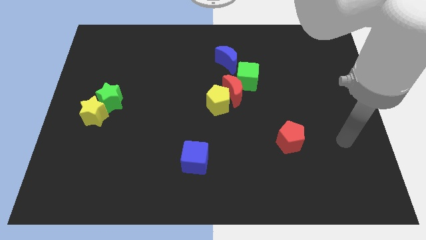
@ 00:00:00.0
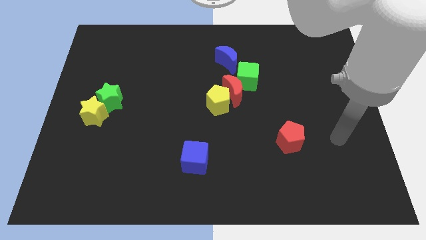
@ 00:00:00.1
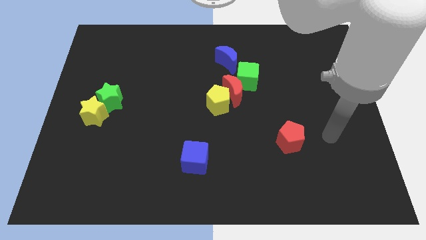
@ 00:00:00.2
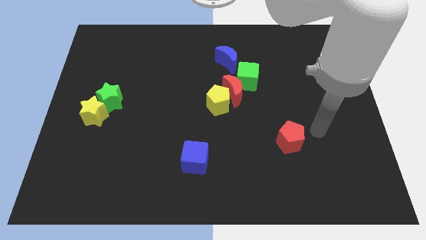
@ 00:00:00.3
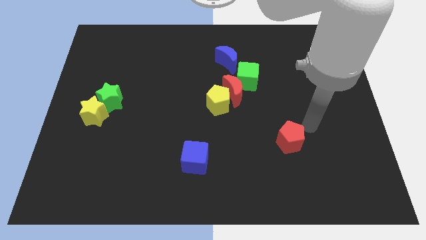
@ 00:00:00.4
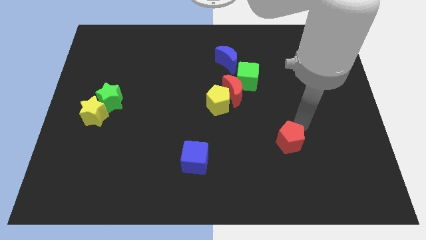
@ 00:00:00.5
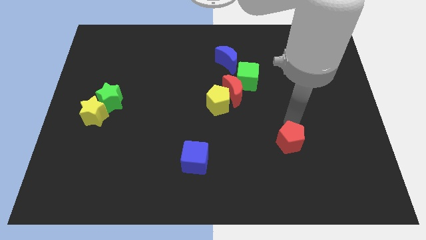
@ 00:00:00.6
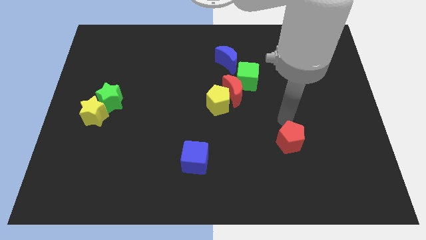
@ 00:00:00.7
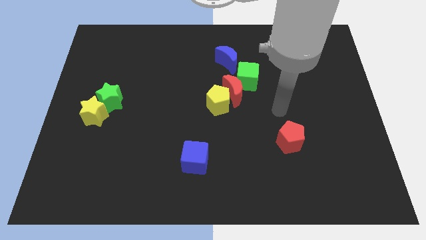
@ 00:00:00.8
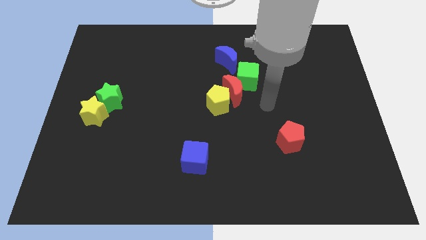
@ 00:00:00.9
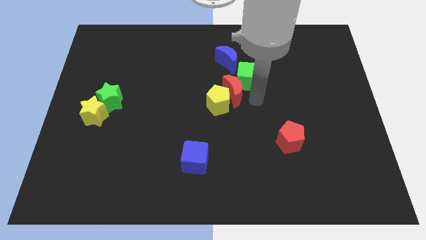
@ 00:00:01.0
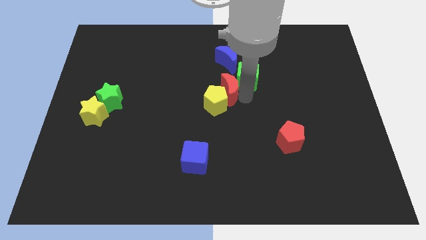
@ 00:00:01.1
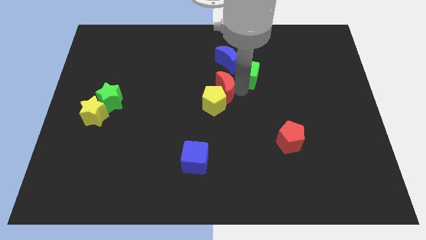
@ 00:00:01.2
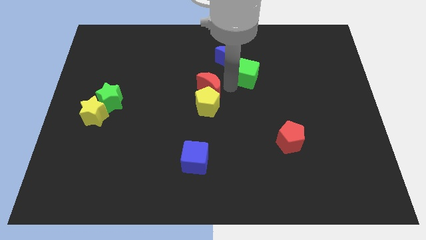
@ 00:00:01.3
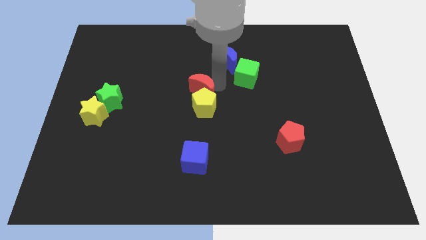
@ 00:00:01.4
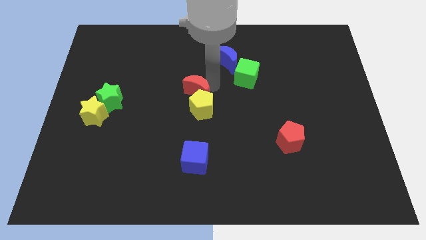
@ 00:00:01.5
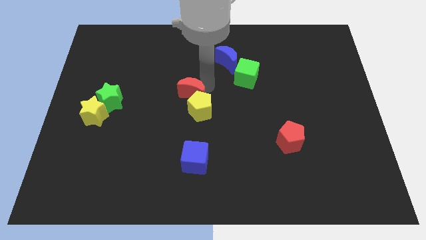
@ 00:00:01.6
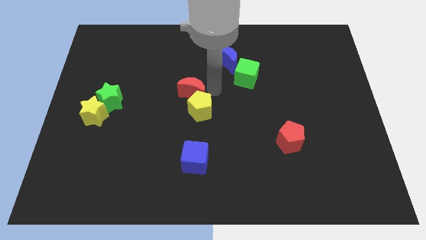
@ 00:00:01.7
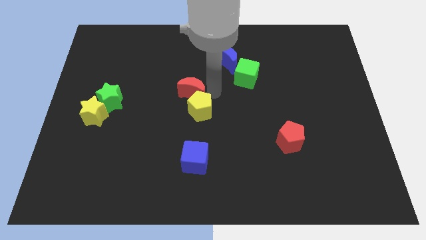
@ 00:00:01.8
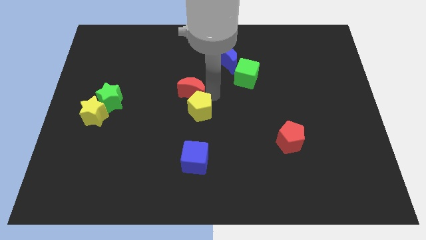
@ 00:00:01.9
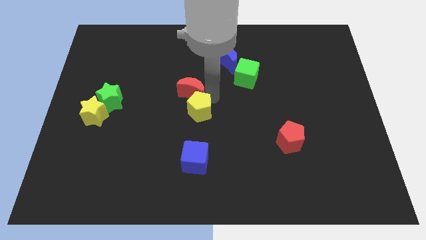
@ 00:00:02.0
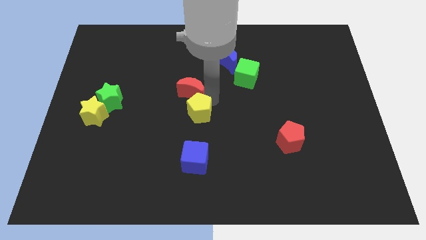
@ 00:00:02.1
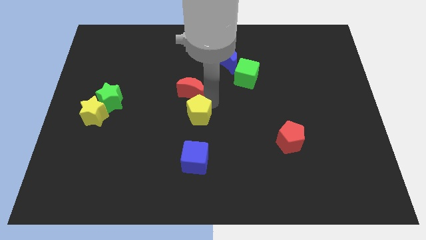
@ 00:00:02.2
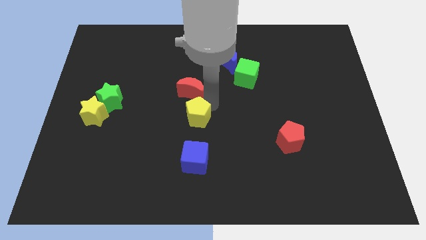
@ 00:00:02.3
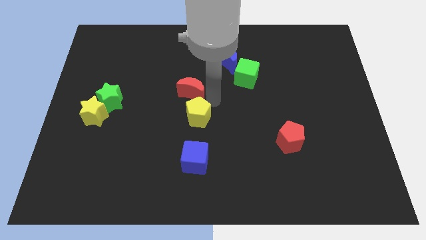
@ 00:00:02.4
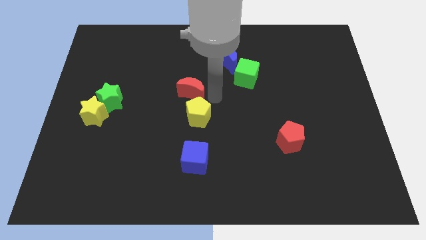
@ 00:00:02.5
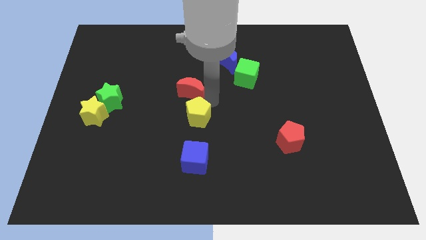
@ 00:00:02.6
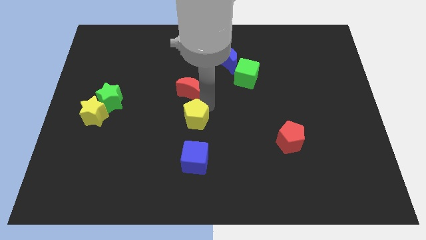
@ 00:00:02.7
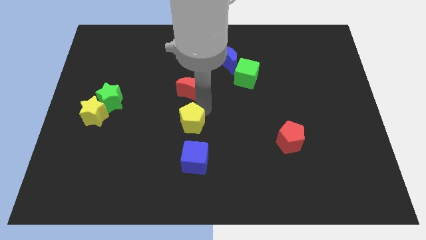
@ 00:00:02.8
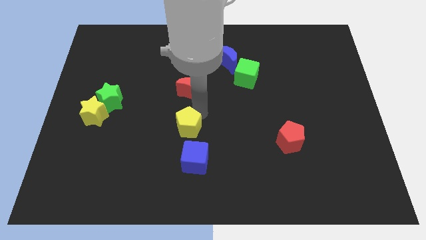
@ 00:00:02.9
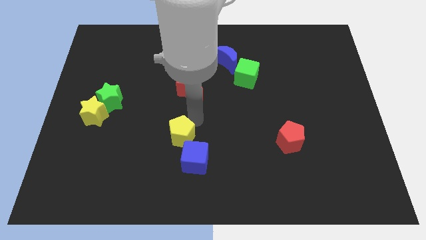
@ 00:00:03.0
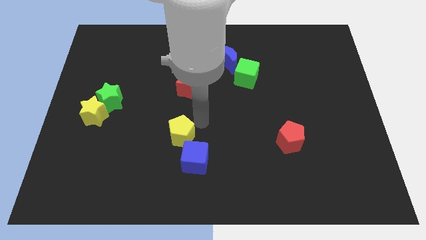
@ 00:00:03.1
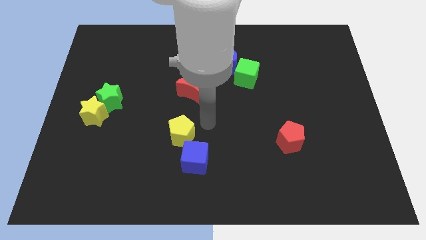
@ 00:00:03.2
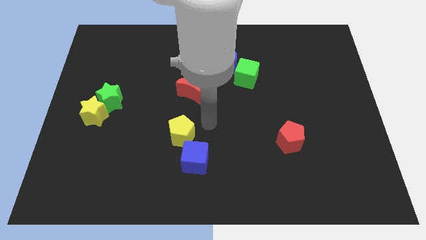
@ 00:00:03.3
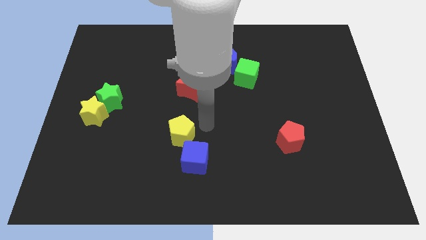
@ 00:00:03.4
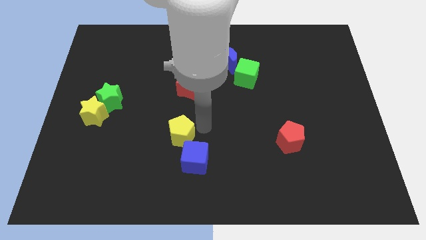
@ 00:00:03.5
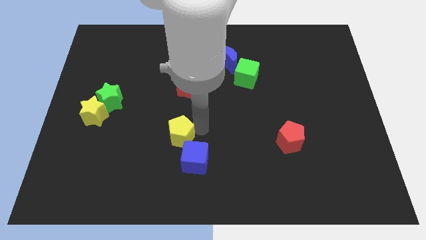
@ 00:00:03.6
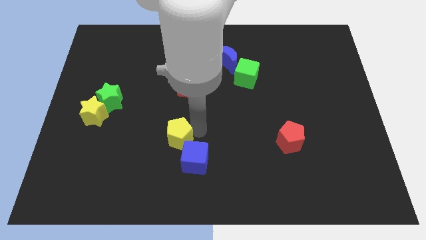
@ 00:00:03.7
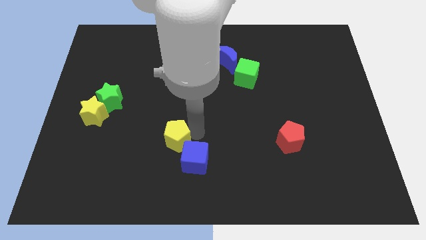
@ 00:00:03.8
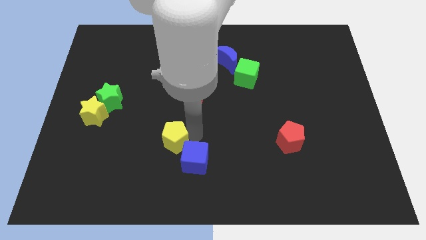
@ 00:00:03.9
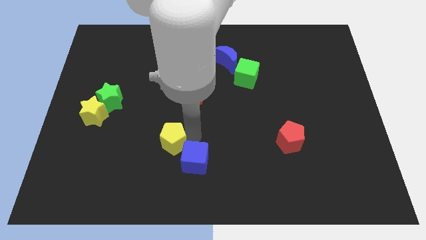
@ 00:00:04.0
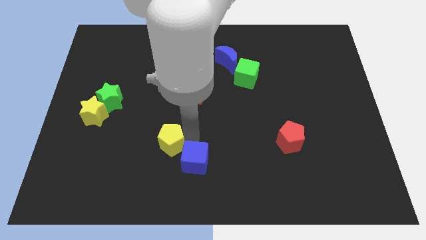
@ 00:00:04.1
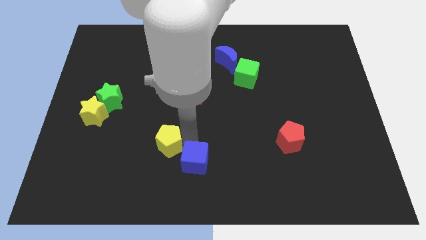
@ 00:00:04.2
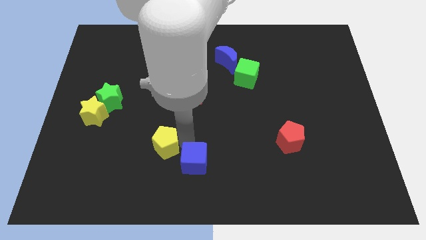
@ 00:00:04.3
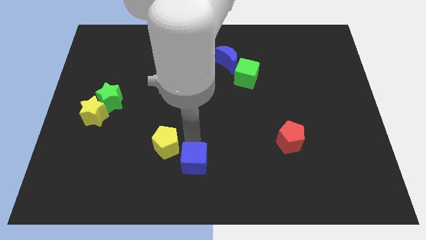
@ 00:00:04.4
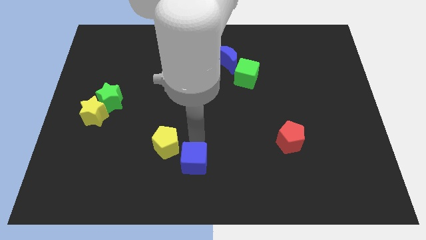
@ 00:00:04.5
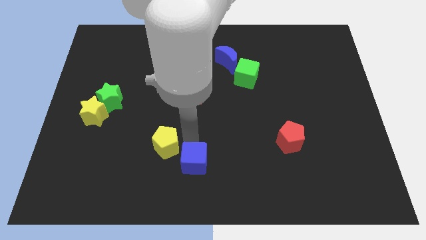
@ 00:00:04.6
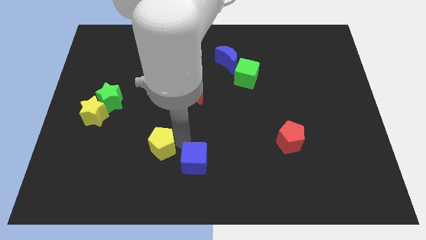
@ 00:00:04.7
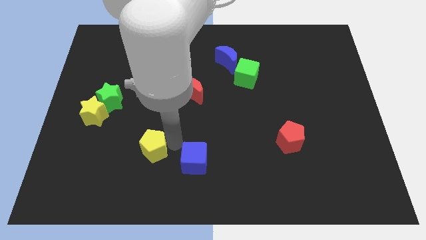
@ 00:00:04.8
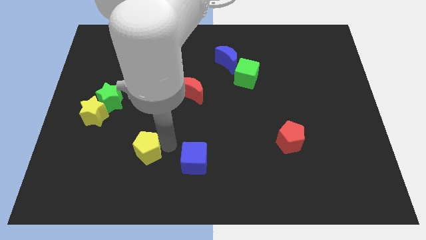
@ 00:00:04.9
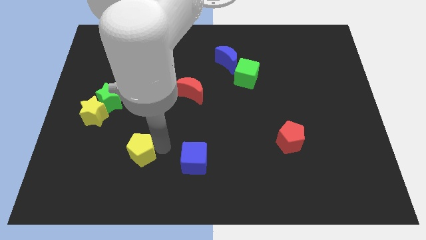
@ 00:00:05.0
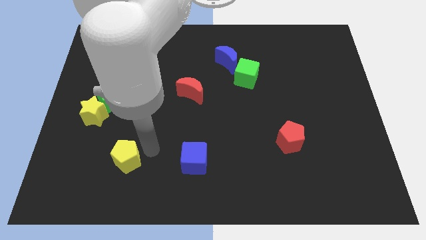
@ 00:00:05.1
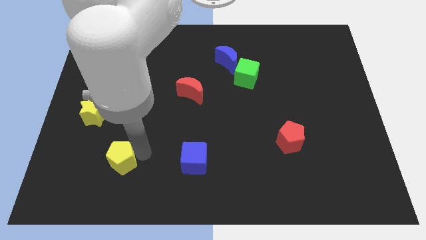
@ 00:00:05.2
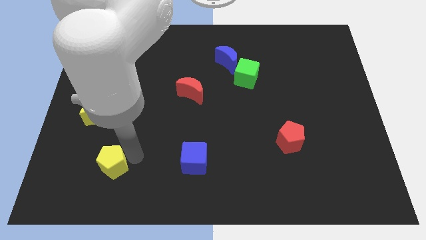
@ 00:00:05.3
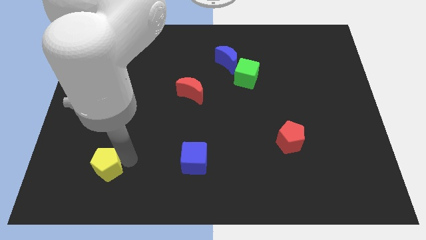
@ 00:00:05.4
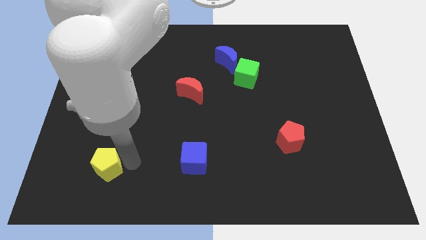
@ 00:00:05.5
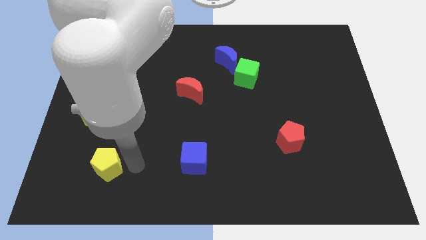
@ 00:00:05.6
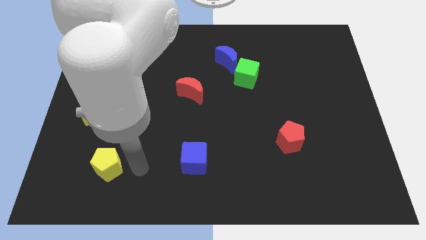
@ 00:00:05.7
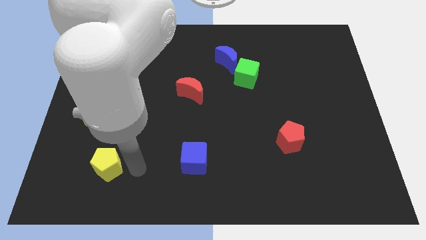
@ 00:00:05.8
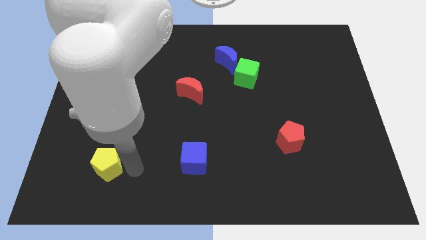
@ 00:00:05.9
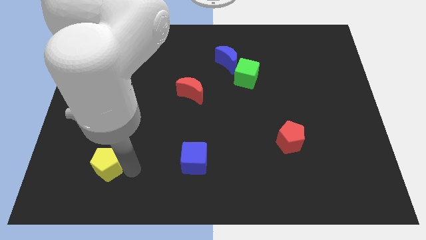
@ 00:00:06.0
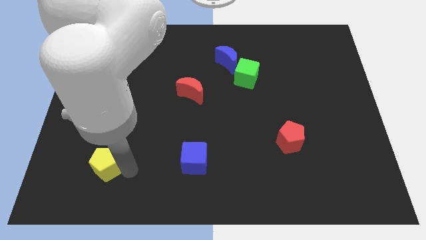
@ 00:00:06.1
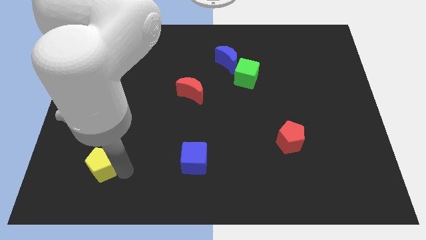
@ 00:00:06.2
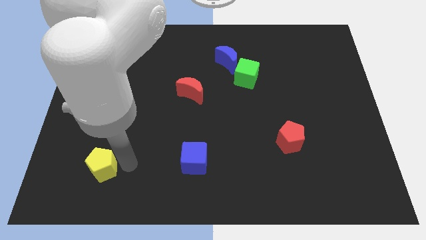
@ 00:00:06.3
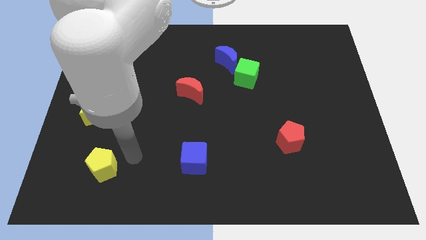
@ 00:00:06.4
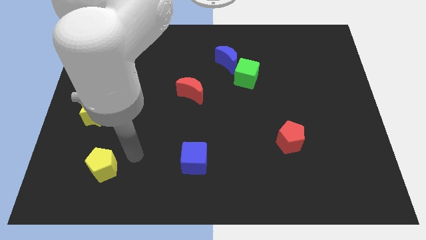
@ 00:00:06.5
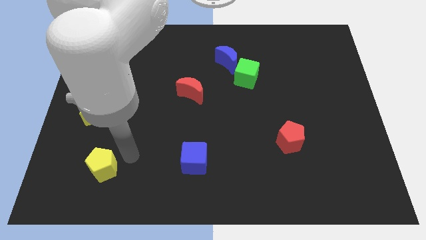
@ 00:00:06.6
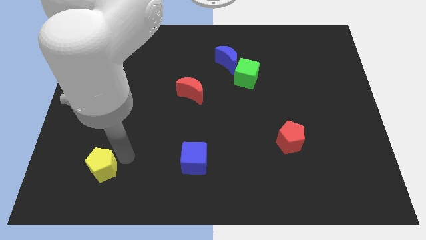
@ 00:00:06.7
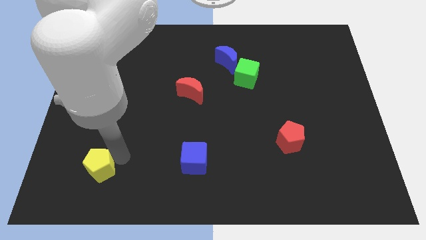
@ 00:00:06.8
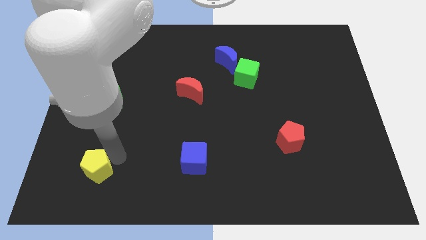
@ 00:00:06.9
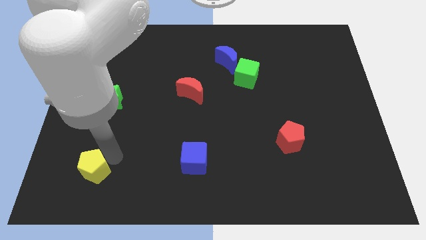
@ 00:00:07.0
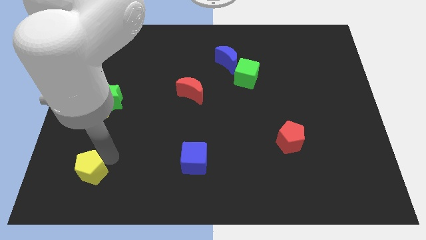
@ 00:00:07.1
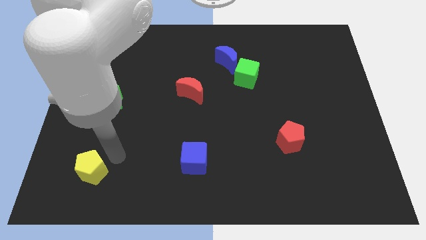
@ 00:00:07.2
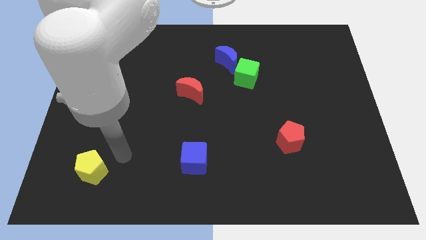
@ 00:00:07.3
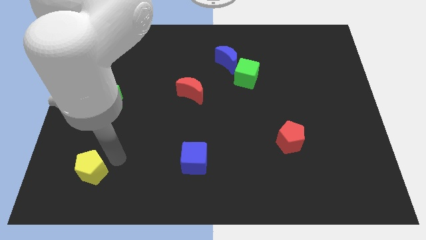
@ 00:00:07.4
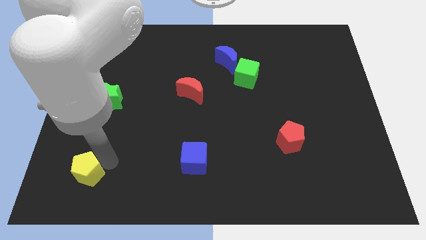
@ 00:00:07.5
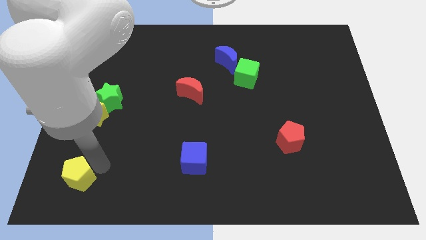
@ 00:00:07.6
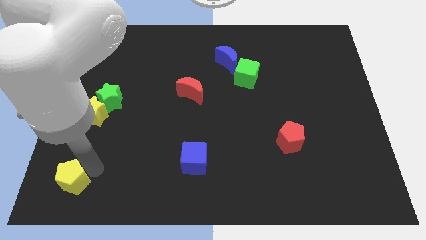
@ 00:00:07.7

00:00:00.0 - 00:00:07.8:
slide the yellow pentagon to the bottom left of the board
